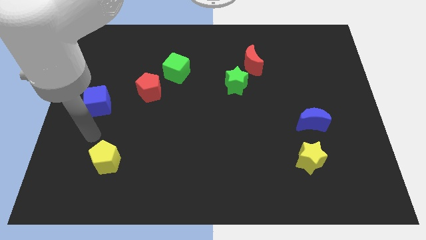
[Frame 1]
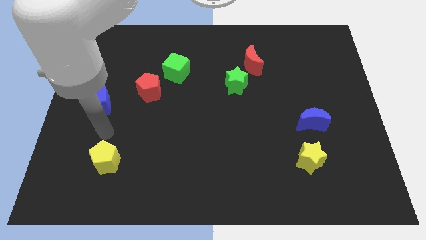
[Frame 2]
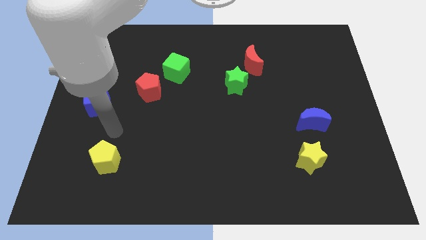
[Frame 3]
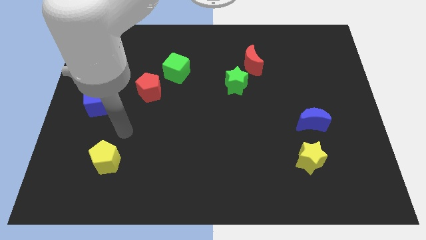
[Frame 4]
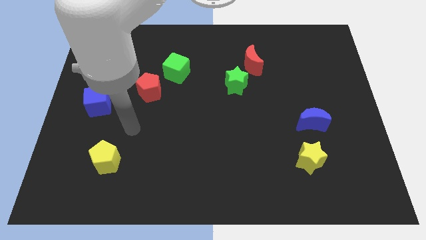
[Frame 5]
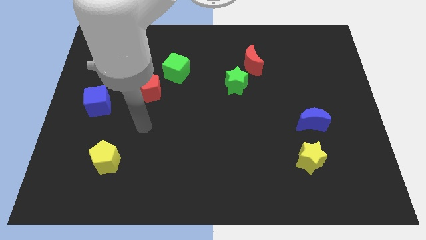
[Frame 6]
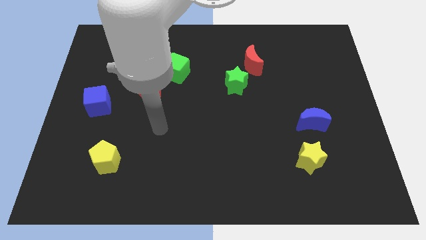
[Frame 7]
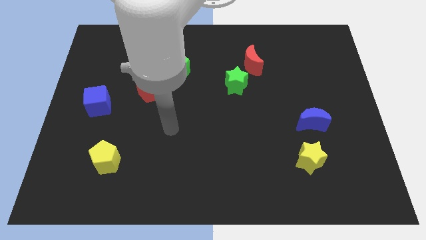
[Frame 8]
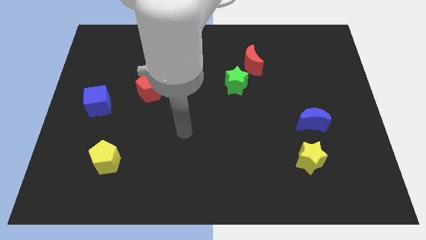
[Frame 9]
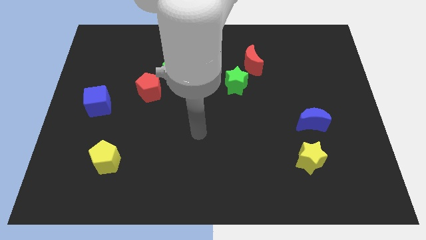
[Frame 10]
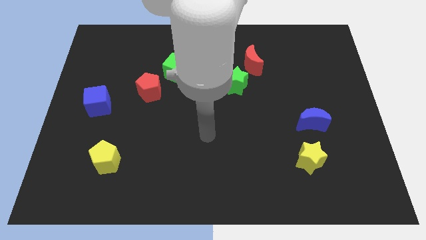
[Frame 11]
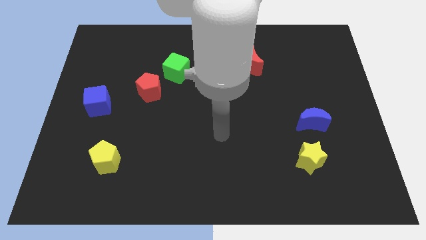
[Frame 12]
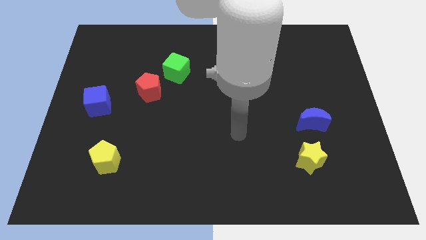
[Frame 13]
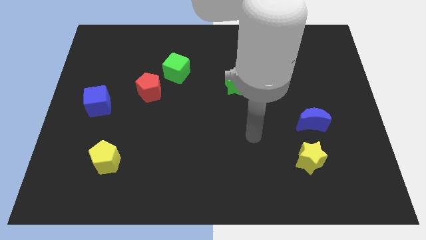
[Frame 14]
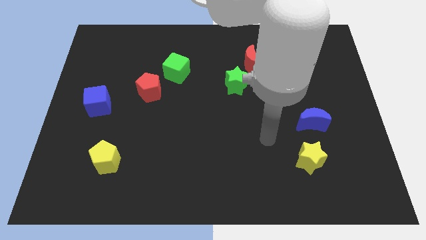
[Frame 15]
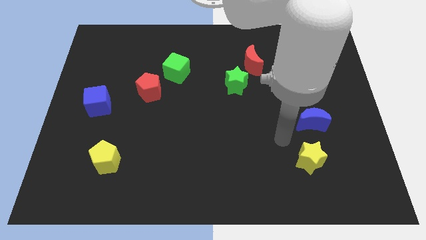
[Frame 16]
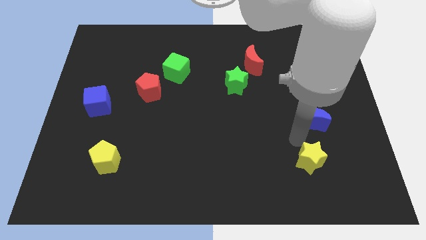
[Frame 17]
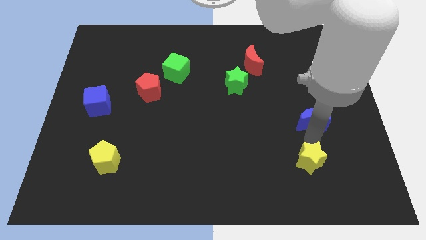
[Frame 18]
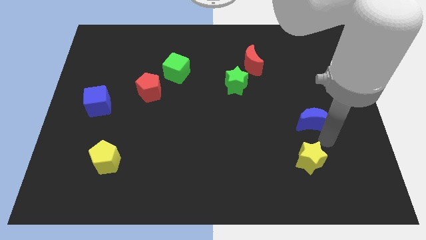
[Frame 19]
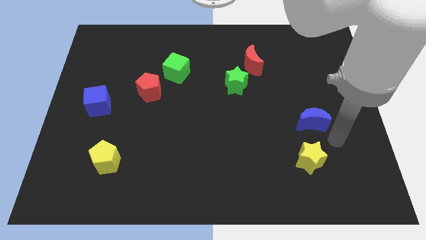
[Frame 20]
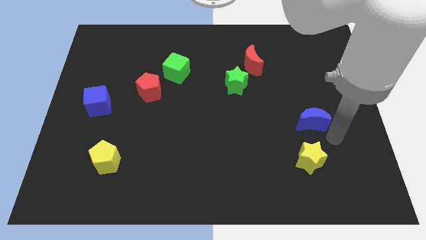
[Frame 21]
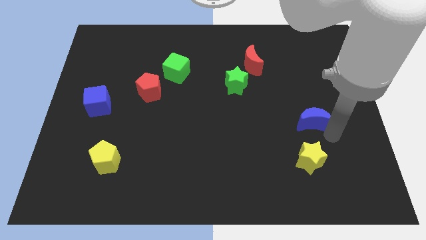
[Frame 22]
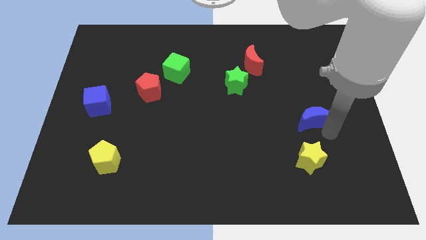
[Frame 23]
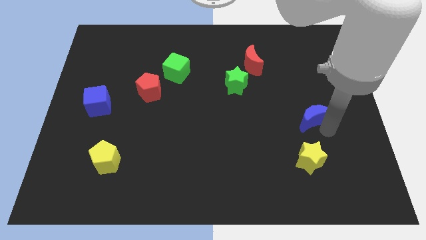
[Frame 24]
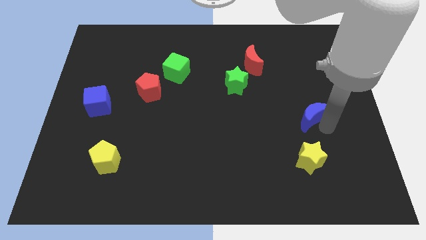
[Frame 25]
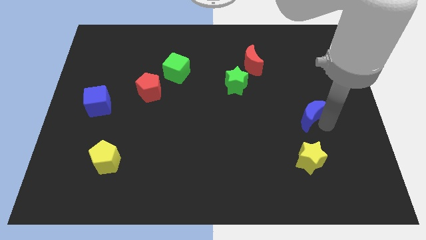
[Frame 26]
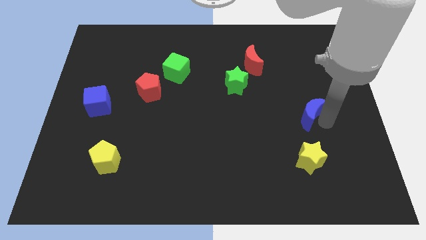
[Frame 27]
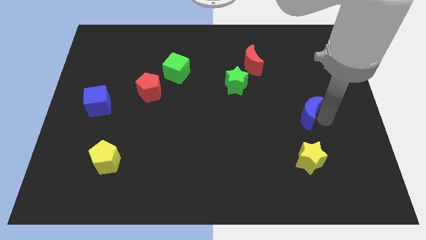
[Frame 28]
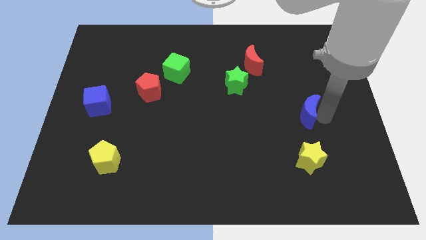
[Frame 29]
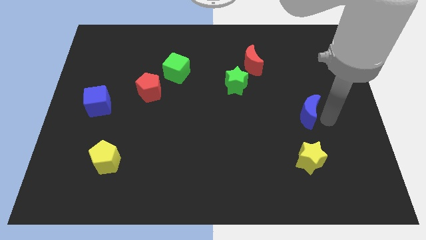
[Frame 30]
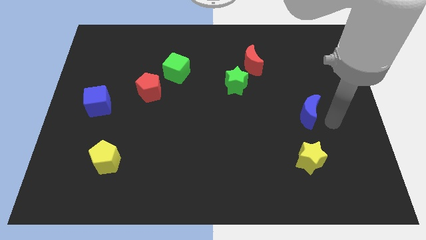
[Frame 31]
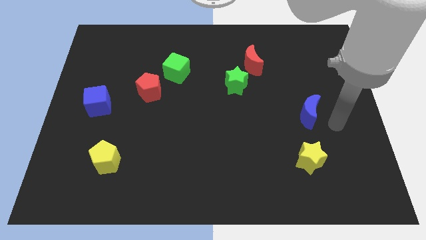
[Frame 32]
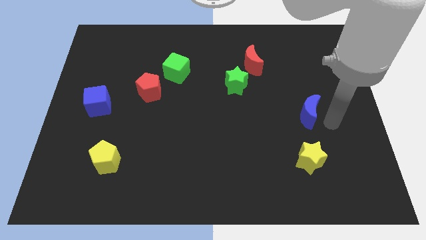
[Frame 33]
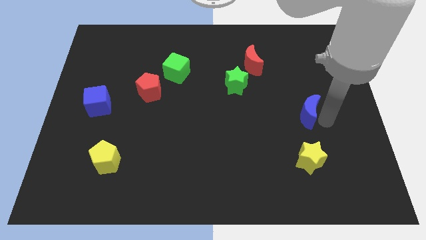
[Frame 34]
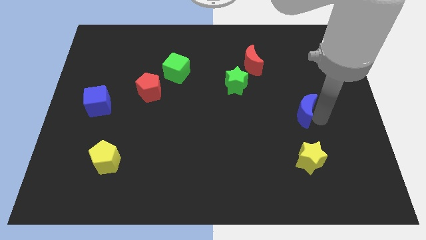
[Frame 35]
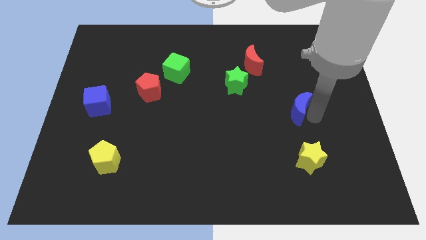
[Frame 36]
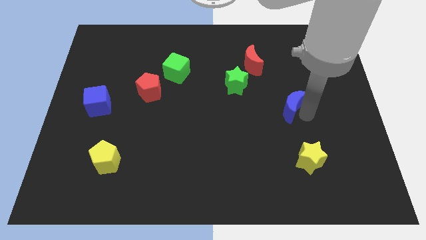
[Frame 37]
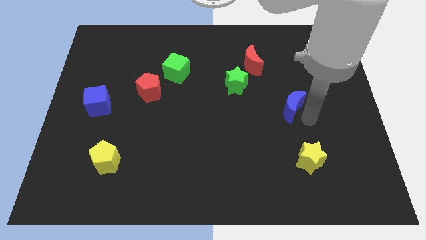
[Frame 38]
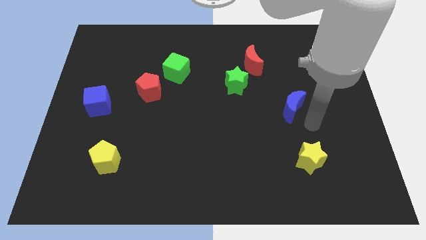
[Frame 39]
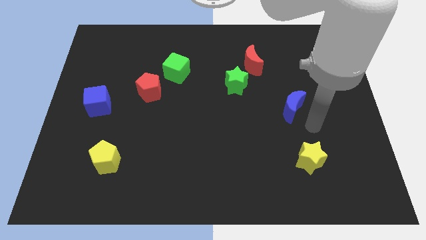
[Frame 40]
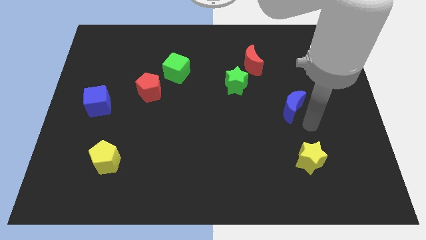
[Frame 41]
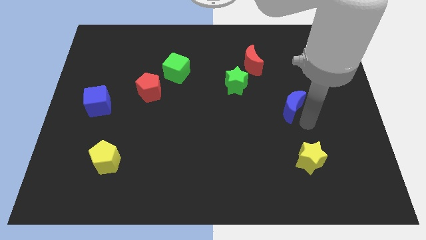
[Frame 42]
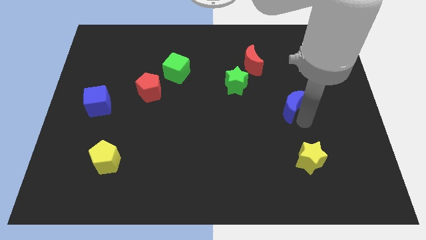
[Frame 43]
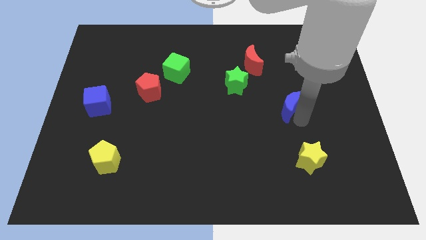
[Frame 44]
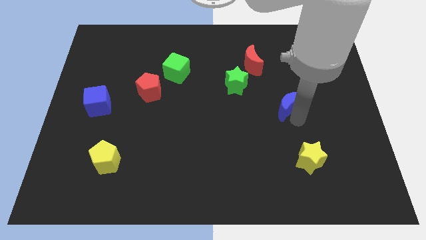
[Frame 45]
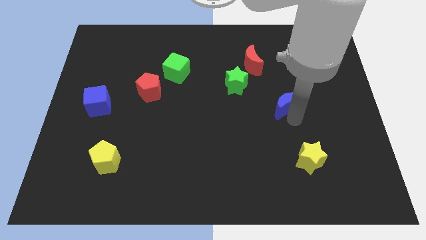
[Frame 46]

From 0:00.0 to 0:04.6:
slightly push the blue moon upwards and to the left

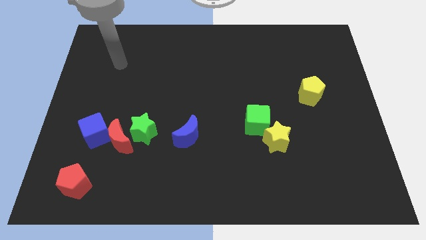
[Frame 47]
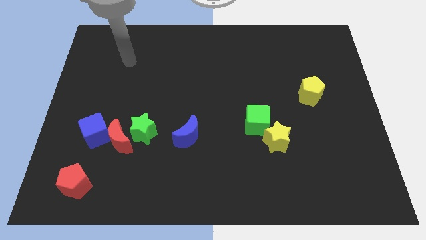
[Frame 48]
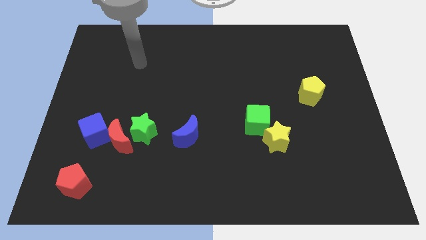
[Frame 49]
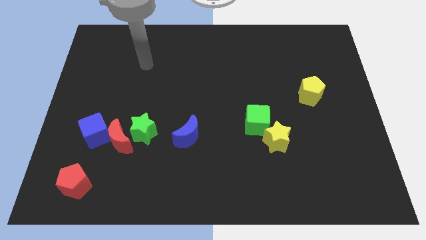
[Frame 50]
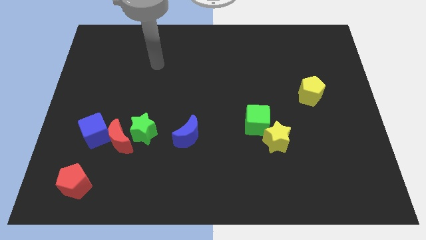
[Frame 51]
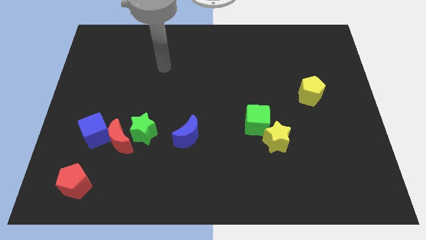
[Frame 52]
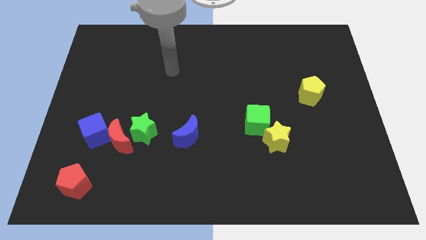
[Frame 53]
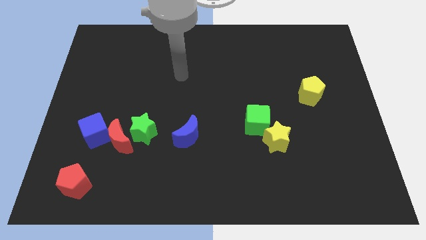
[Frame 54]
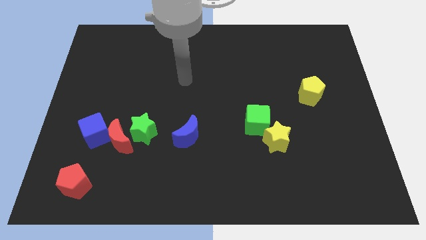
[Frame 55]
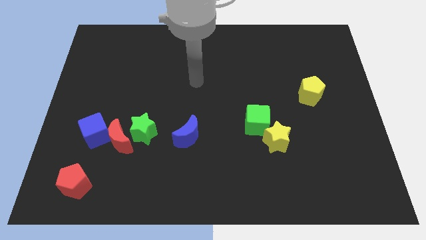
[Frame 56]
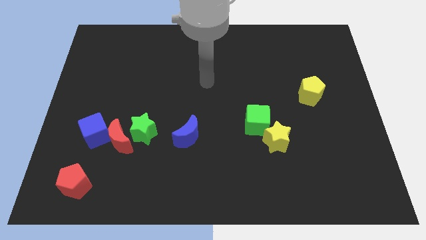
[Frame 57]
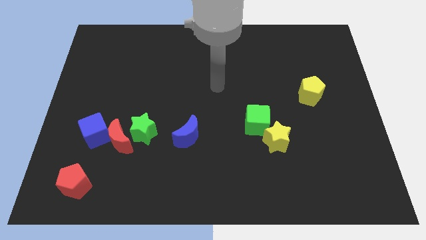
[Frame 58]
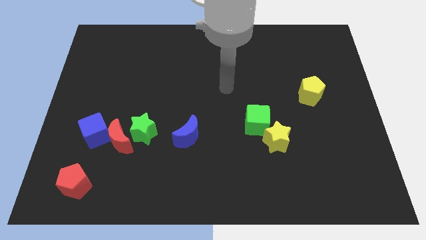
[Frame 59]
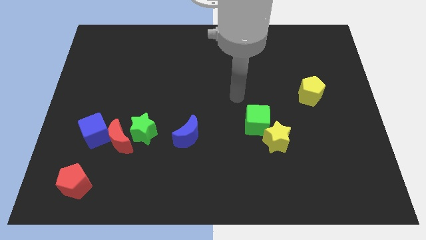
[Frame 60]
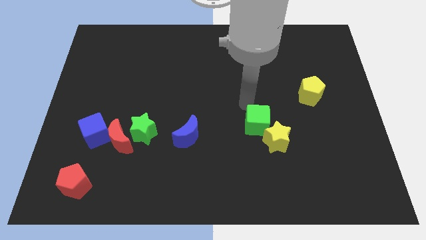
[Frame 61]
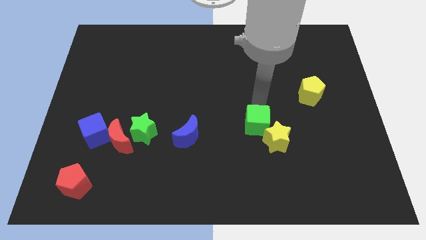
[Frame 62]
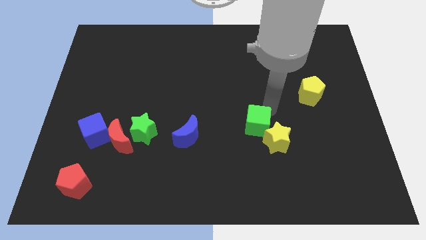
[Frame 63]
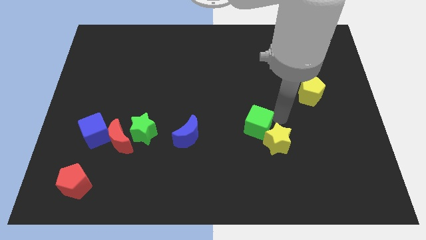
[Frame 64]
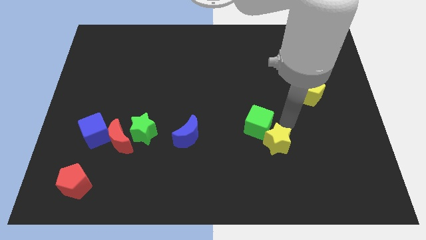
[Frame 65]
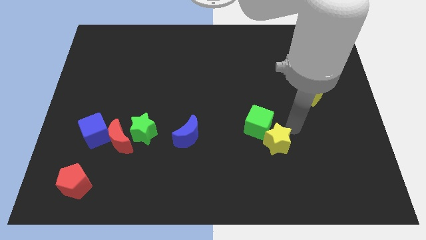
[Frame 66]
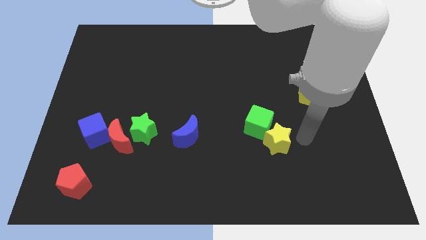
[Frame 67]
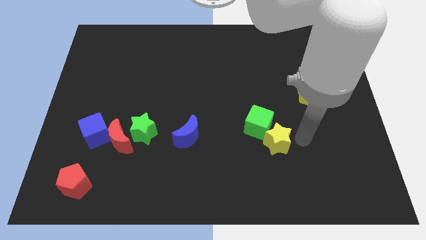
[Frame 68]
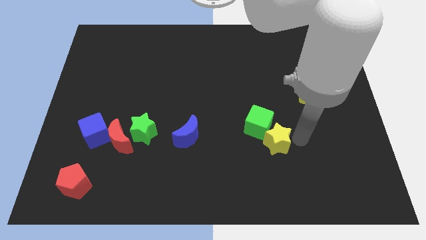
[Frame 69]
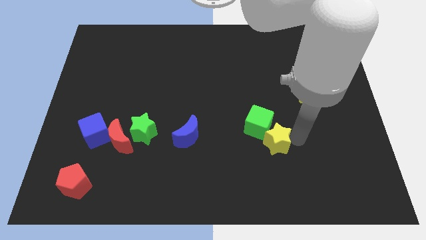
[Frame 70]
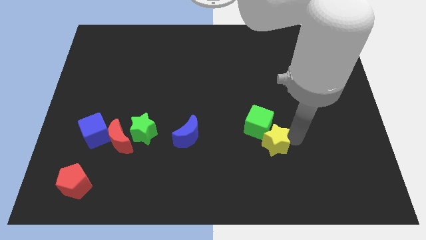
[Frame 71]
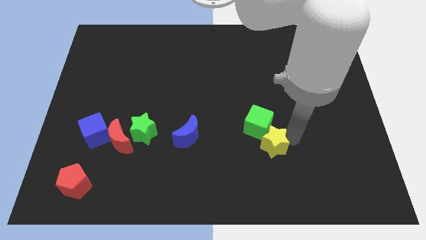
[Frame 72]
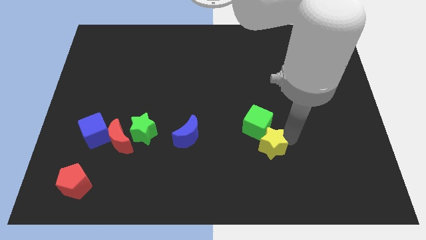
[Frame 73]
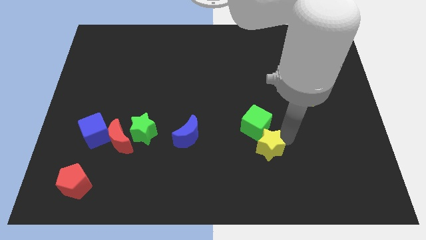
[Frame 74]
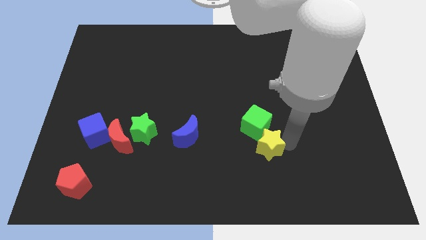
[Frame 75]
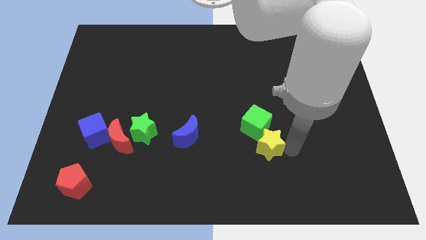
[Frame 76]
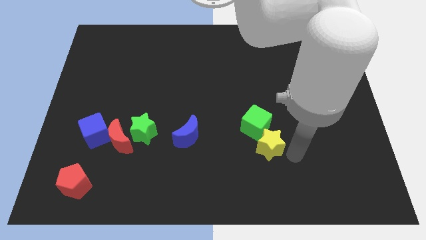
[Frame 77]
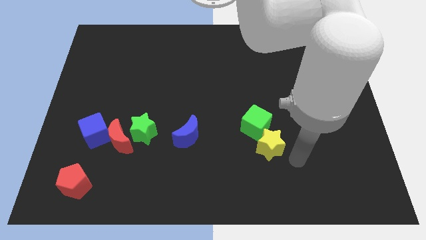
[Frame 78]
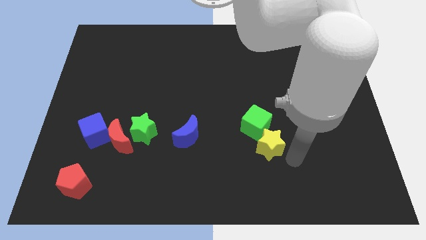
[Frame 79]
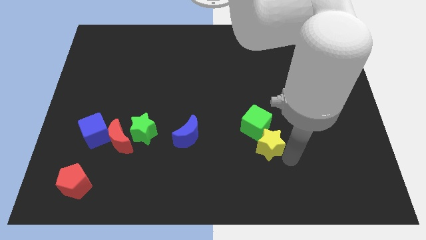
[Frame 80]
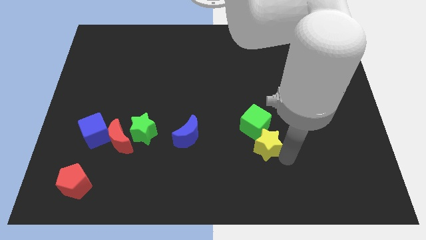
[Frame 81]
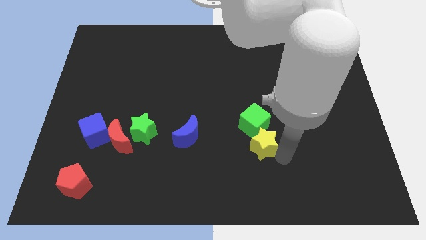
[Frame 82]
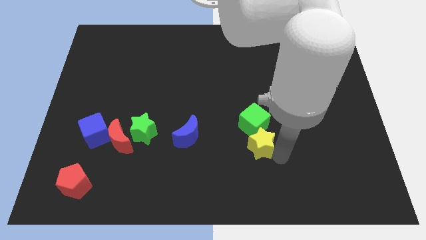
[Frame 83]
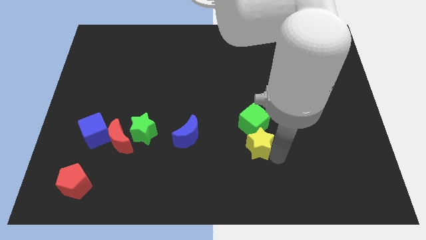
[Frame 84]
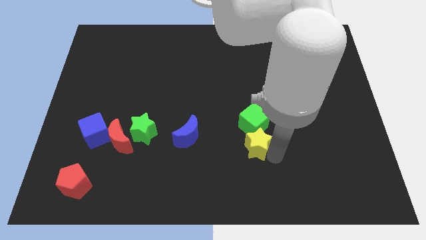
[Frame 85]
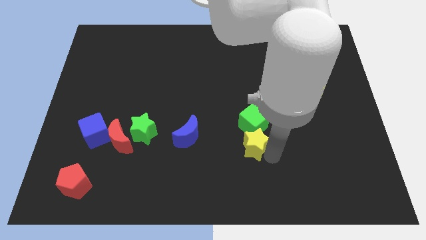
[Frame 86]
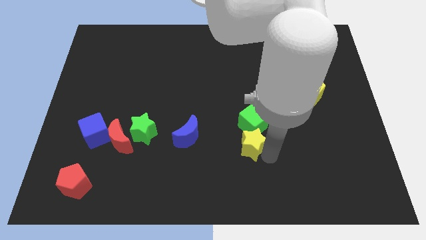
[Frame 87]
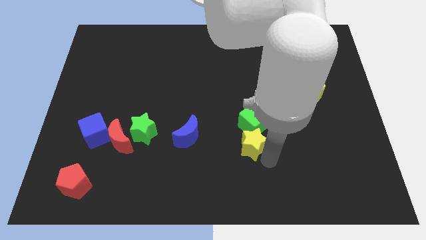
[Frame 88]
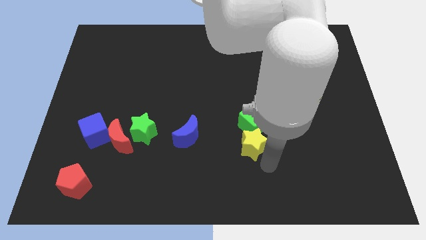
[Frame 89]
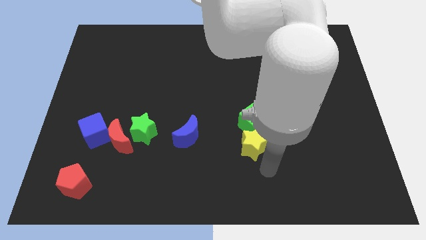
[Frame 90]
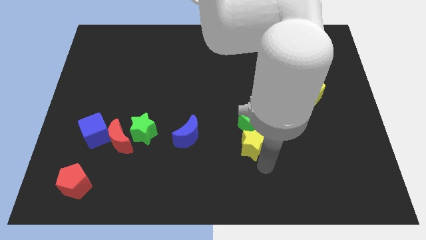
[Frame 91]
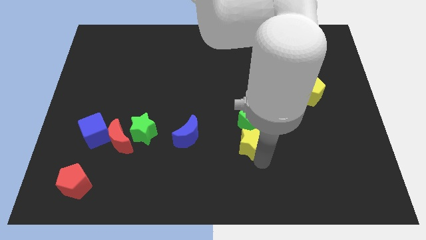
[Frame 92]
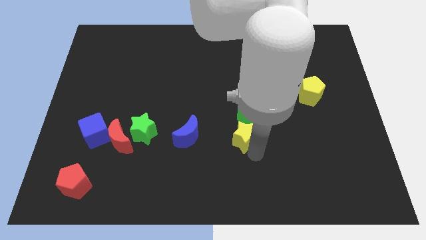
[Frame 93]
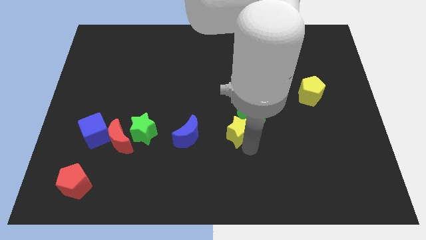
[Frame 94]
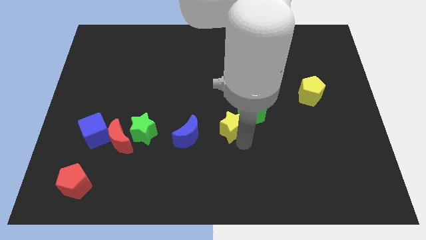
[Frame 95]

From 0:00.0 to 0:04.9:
push the yellow star a bit up and then left
